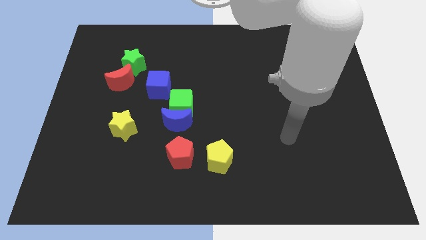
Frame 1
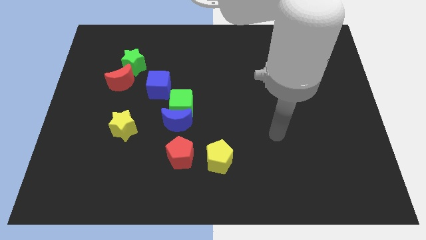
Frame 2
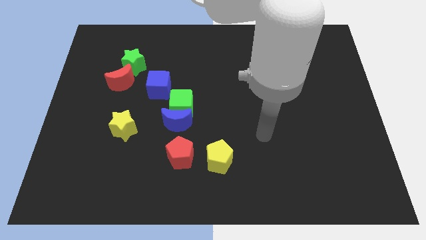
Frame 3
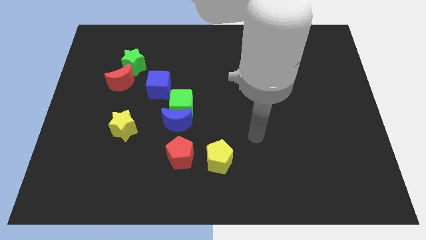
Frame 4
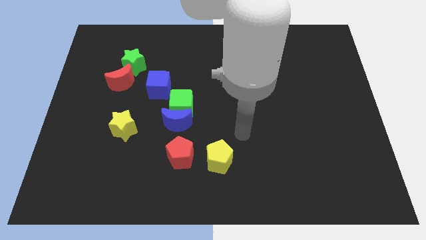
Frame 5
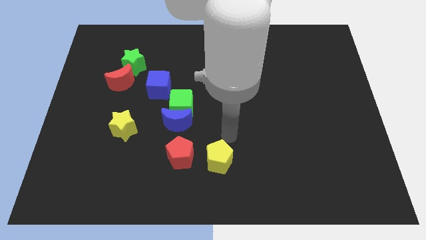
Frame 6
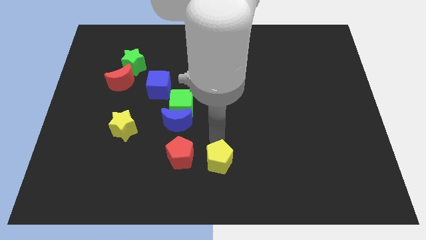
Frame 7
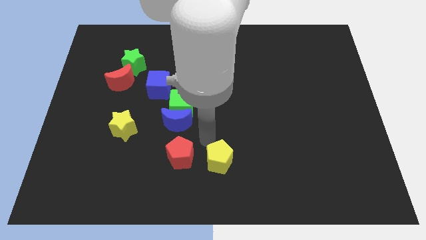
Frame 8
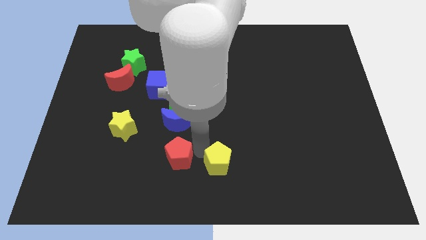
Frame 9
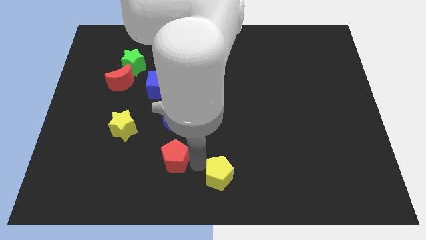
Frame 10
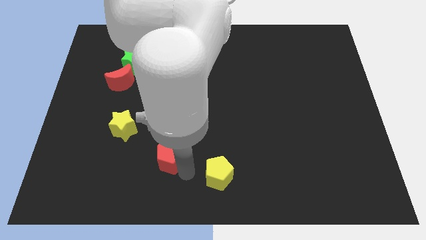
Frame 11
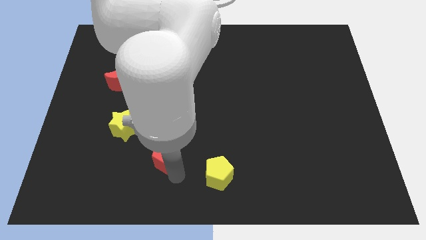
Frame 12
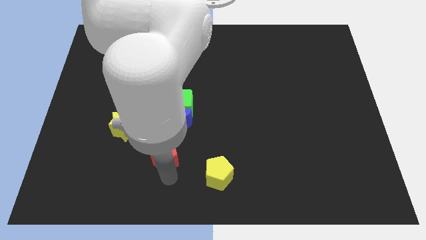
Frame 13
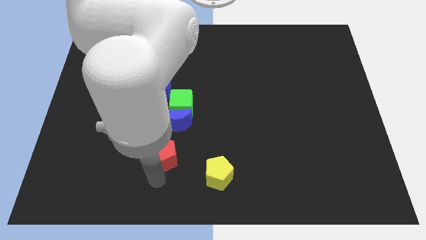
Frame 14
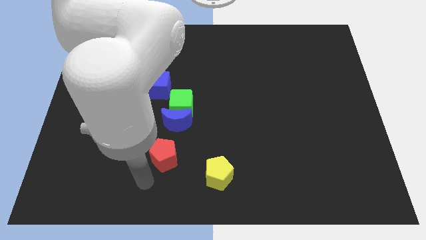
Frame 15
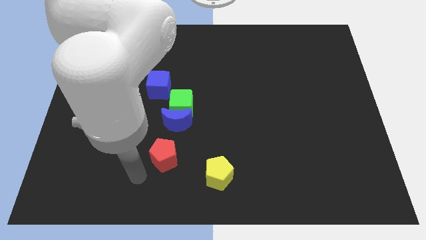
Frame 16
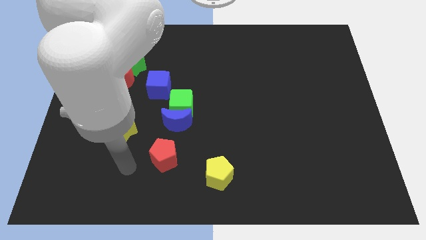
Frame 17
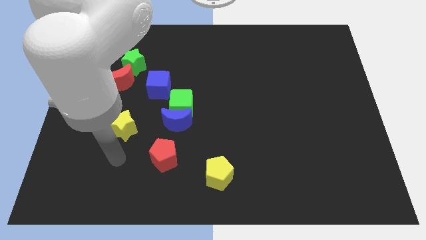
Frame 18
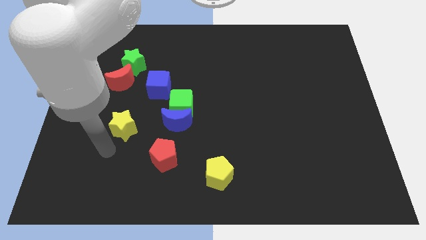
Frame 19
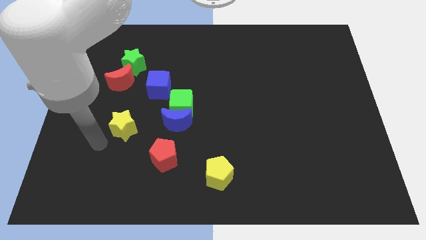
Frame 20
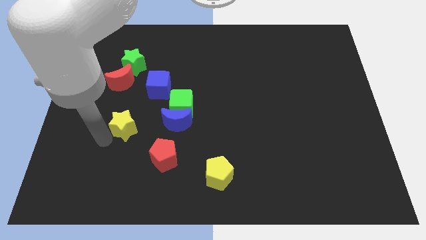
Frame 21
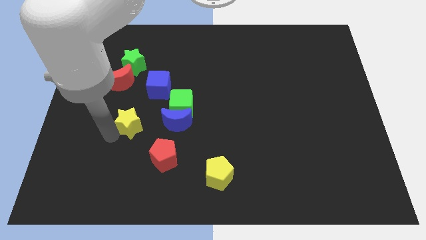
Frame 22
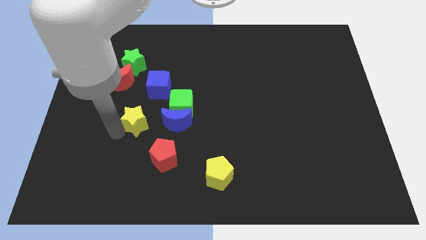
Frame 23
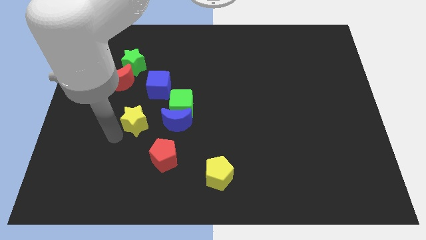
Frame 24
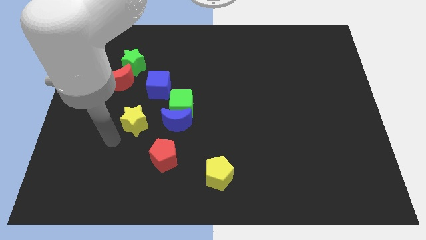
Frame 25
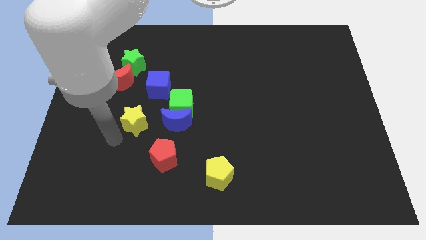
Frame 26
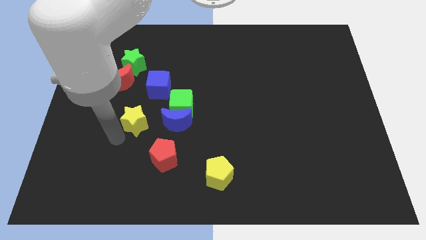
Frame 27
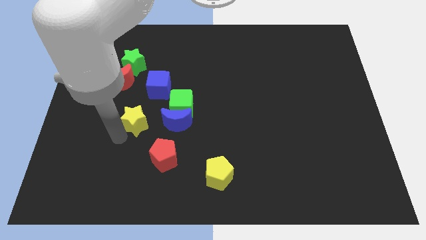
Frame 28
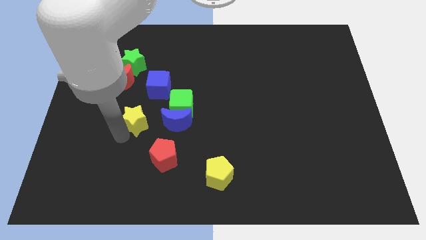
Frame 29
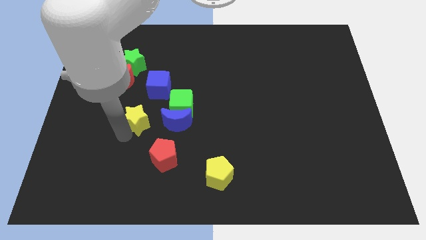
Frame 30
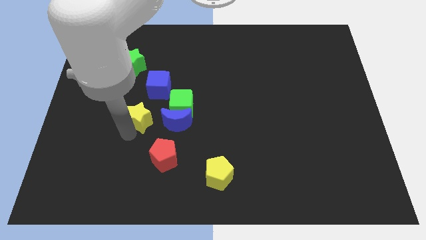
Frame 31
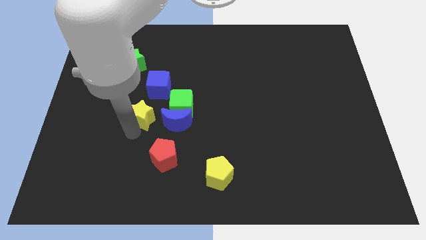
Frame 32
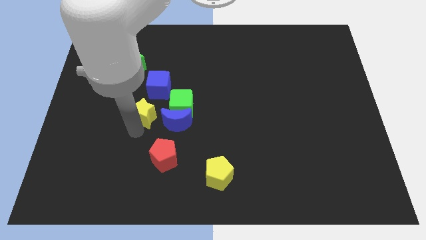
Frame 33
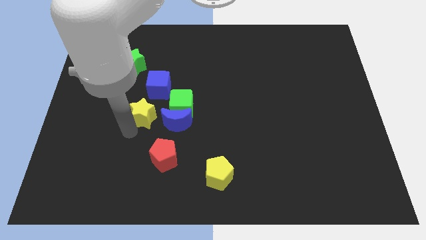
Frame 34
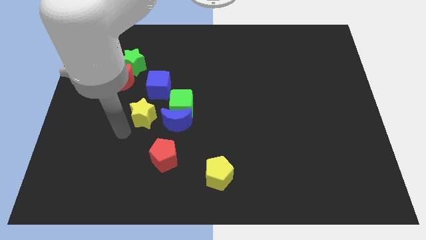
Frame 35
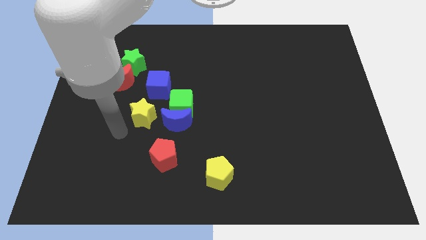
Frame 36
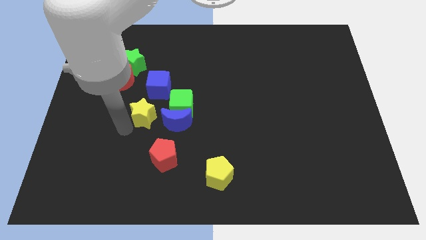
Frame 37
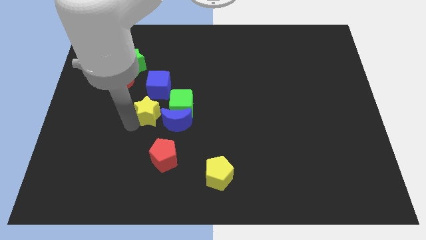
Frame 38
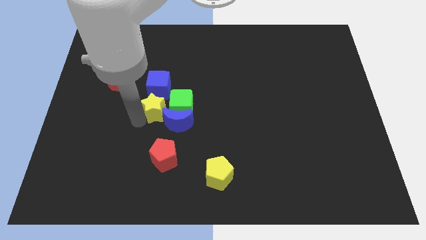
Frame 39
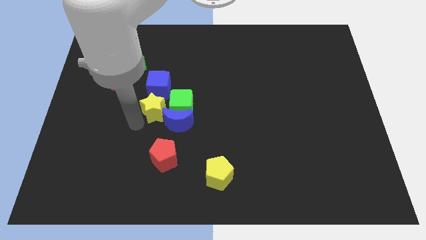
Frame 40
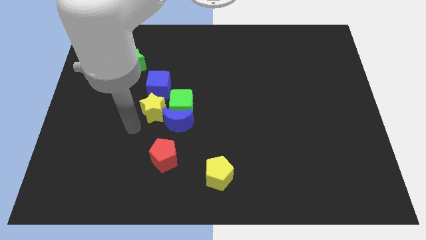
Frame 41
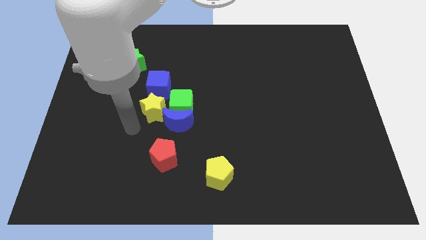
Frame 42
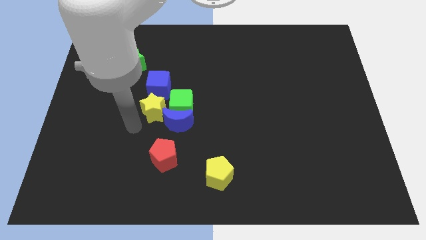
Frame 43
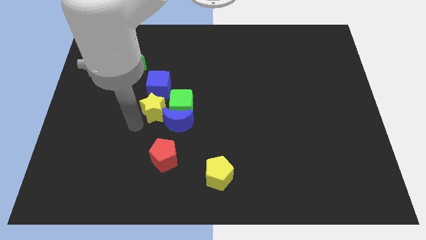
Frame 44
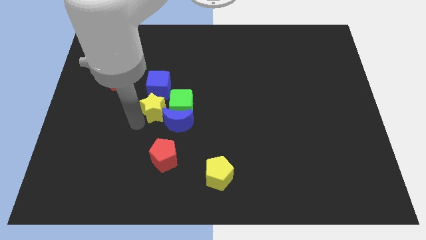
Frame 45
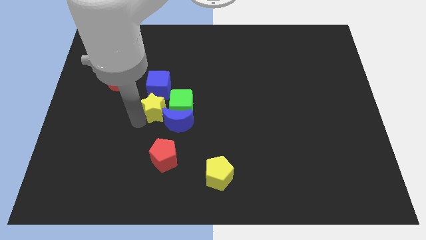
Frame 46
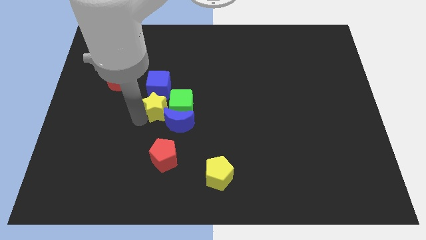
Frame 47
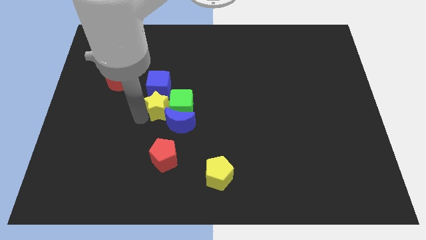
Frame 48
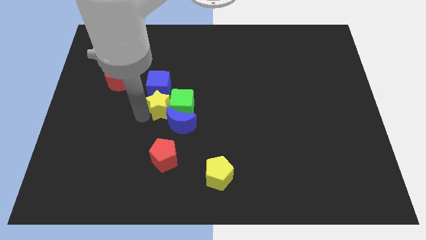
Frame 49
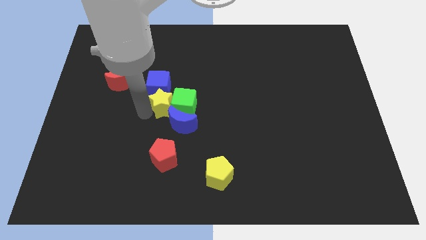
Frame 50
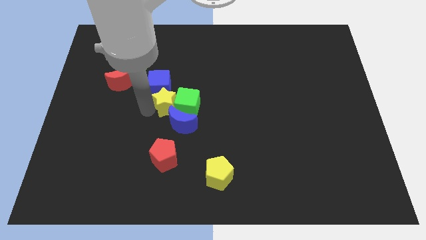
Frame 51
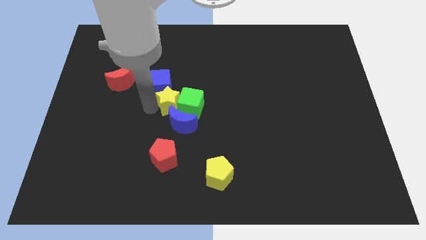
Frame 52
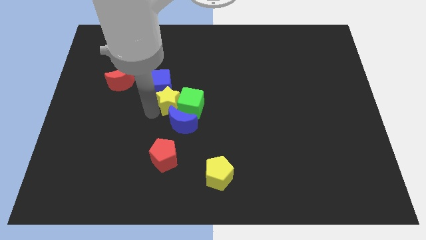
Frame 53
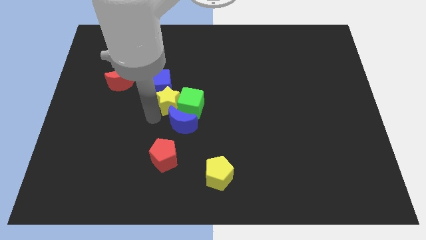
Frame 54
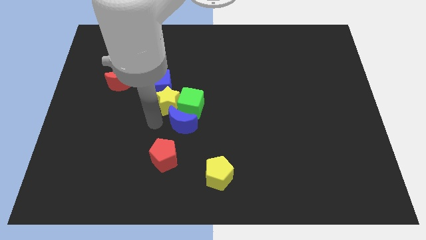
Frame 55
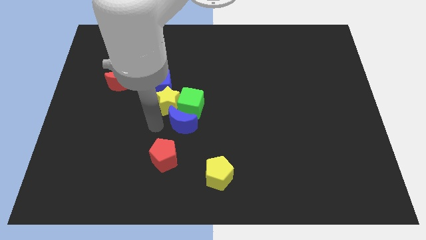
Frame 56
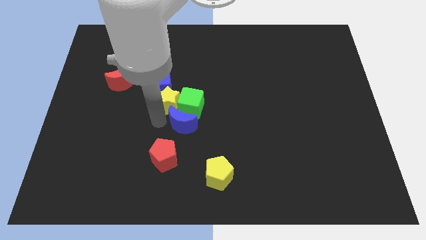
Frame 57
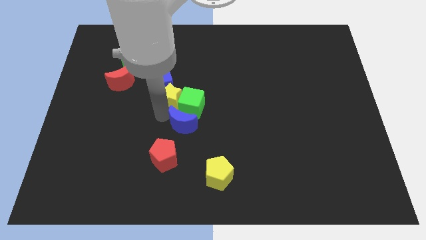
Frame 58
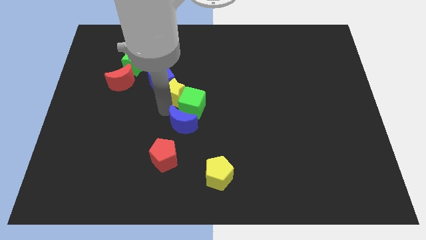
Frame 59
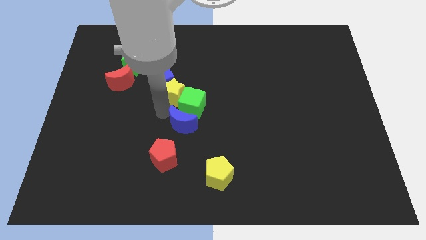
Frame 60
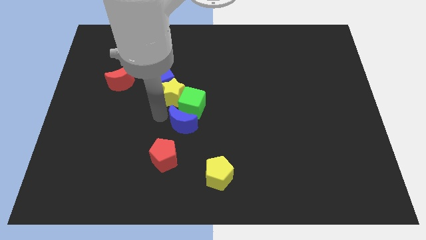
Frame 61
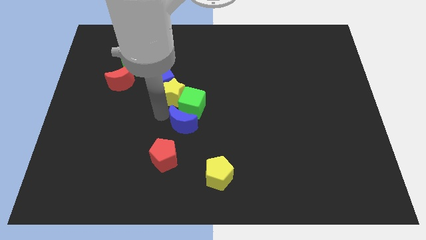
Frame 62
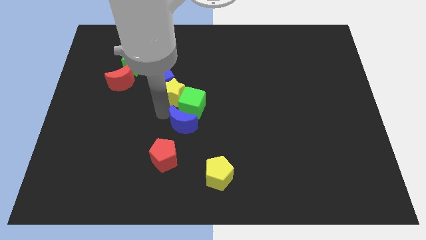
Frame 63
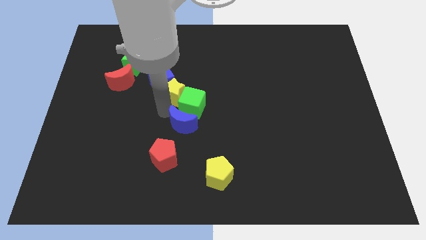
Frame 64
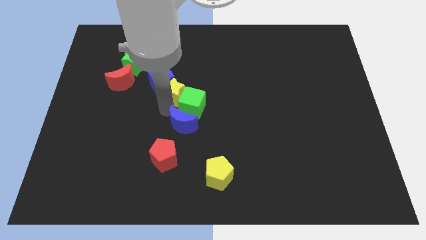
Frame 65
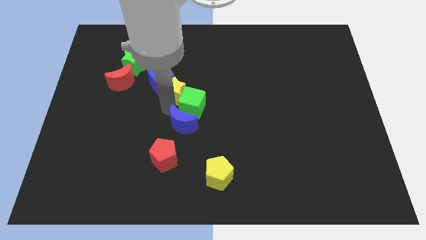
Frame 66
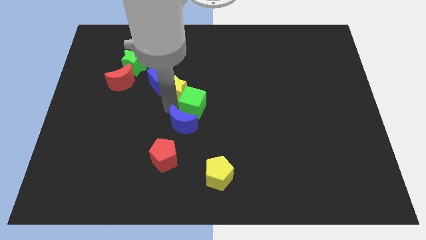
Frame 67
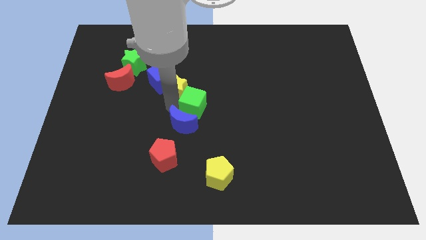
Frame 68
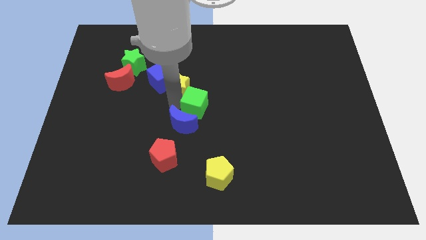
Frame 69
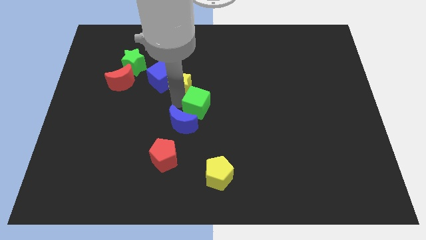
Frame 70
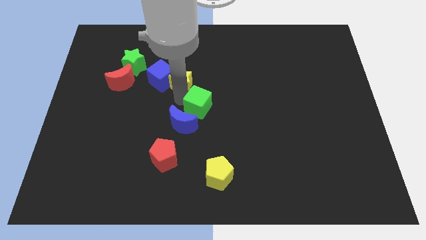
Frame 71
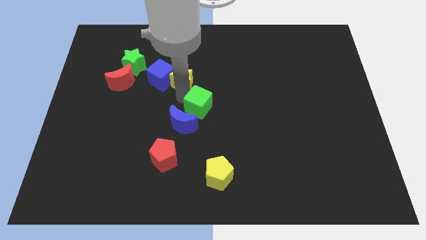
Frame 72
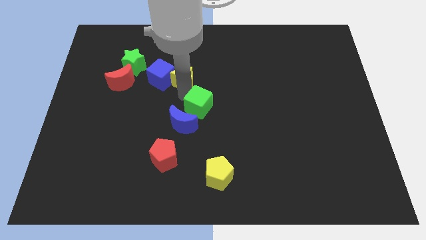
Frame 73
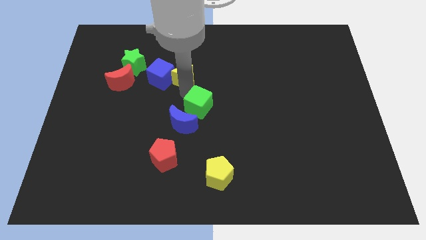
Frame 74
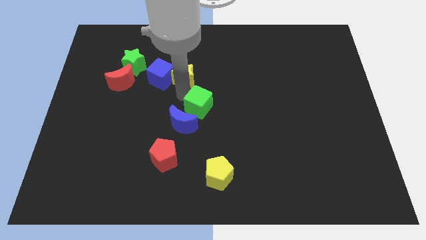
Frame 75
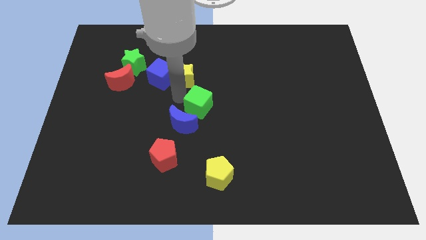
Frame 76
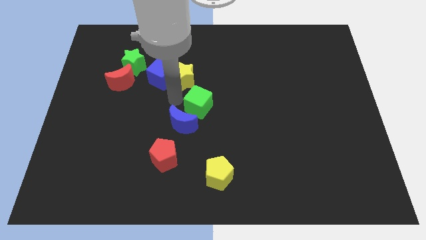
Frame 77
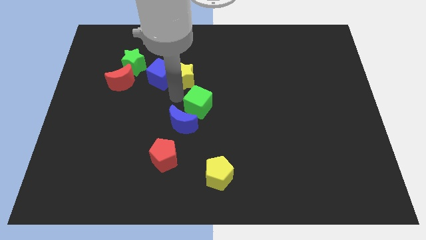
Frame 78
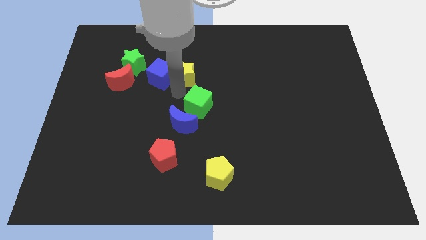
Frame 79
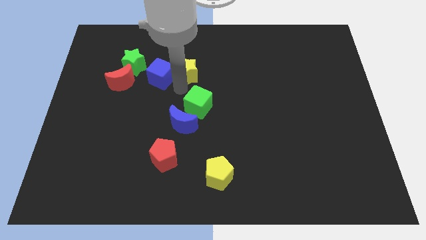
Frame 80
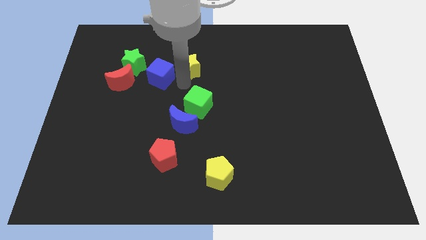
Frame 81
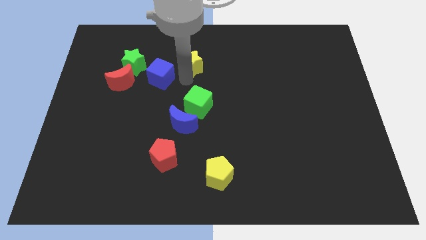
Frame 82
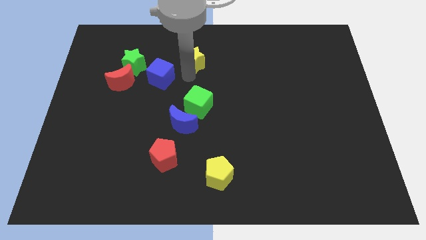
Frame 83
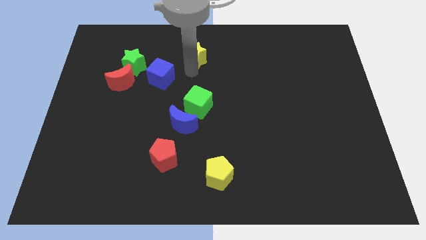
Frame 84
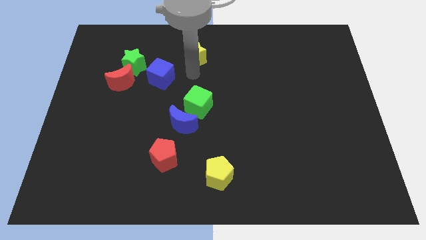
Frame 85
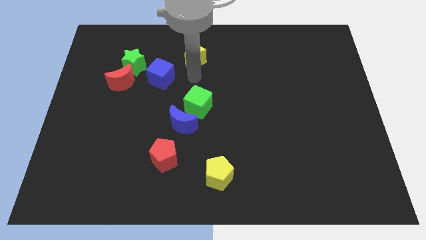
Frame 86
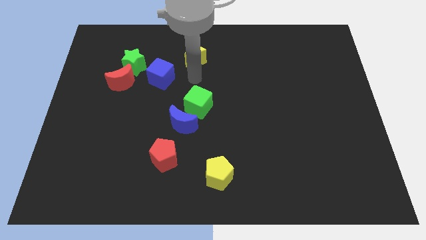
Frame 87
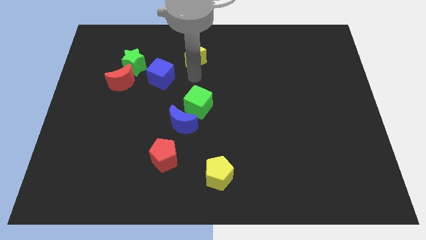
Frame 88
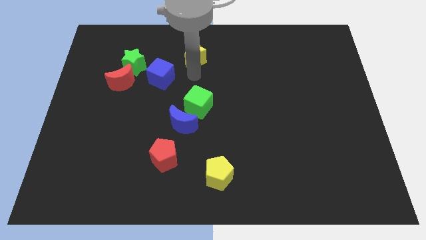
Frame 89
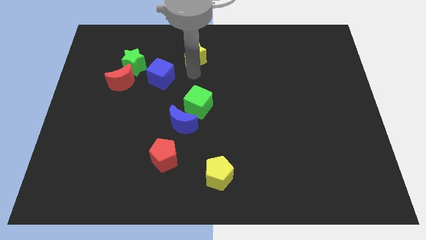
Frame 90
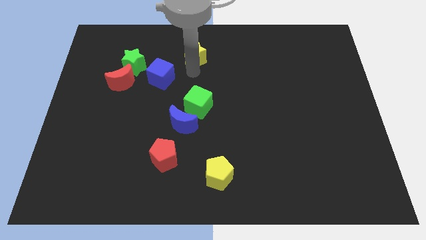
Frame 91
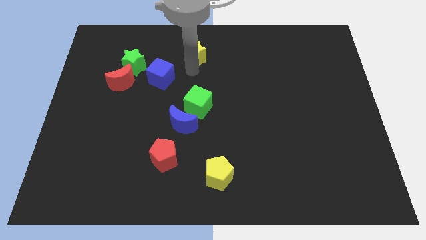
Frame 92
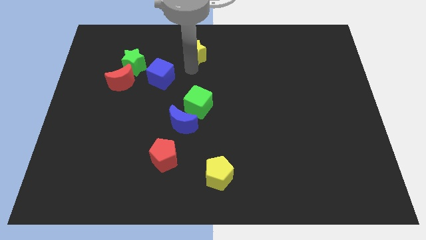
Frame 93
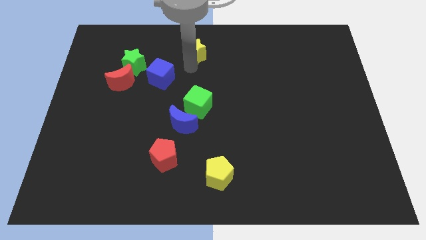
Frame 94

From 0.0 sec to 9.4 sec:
put the yellow star to the top side
